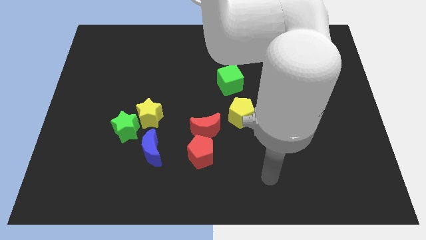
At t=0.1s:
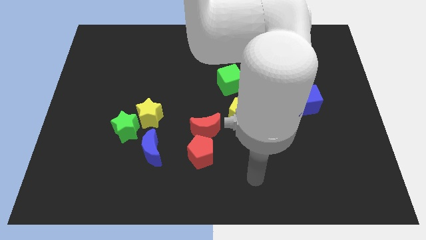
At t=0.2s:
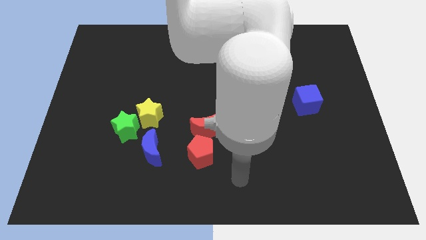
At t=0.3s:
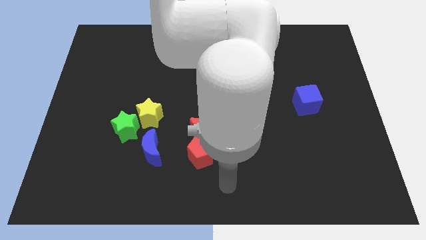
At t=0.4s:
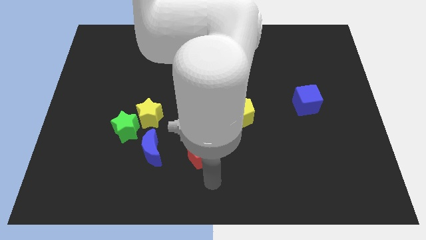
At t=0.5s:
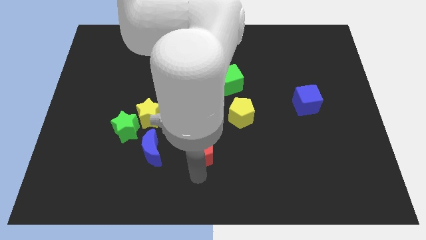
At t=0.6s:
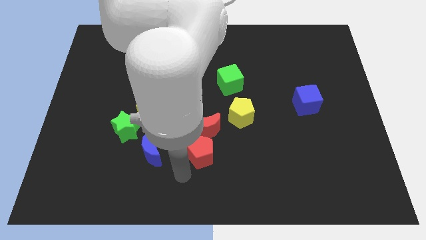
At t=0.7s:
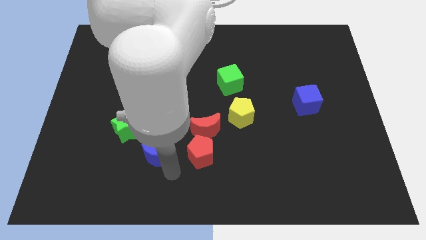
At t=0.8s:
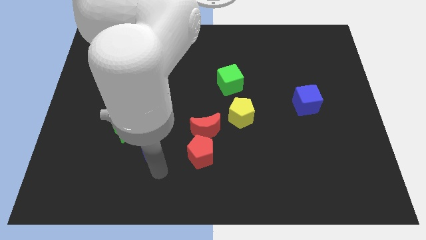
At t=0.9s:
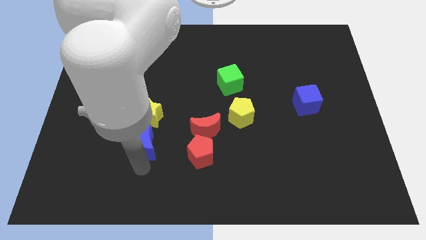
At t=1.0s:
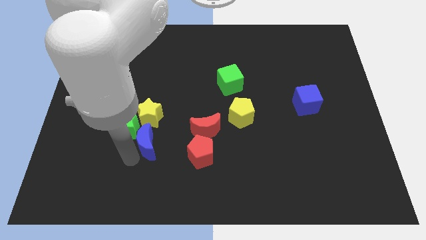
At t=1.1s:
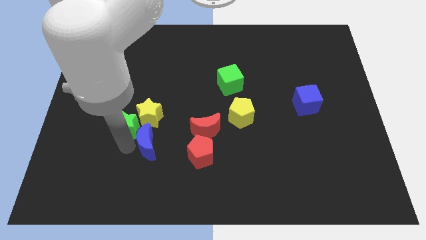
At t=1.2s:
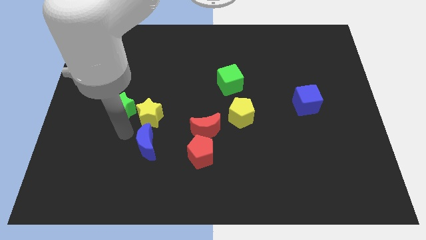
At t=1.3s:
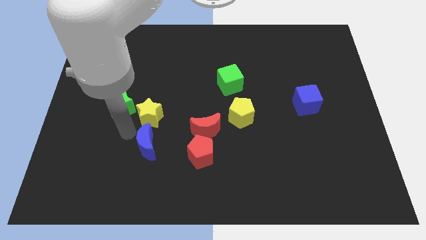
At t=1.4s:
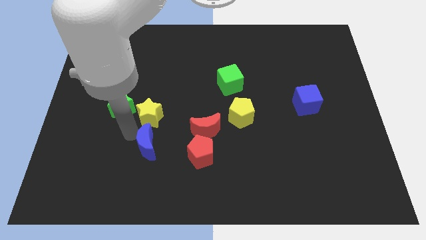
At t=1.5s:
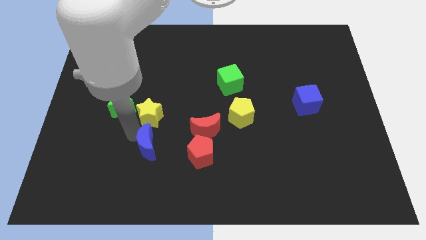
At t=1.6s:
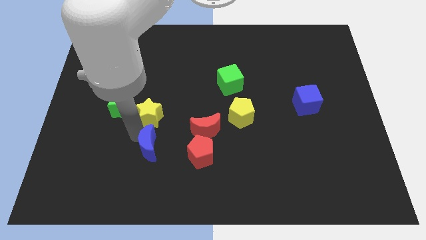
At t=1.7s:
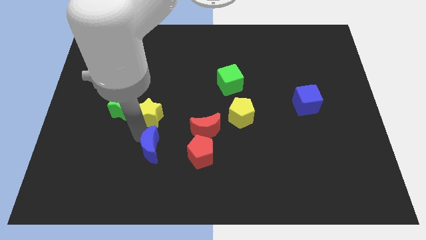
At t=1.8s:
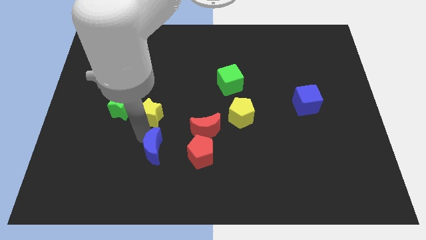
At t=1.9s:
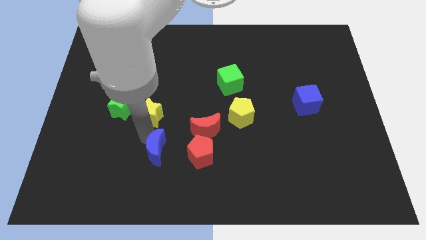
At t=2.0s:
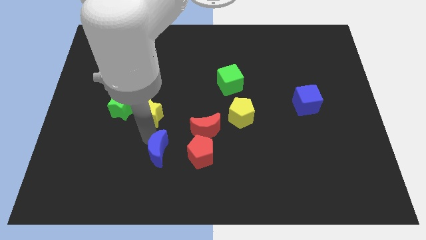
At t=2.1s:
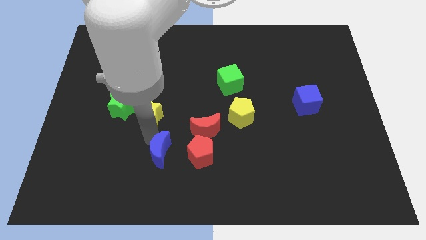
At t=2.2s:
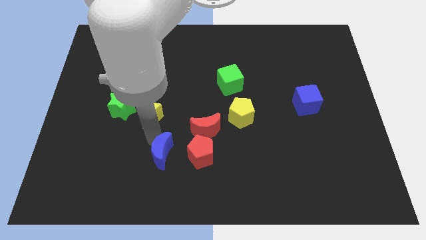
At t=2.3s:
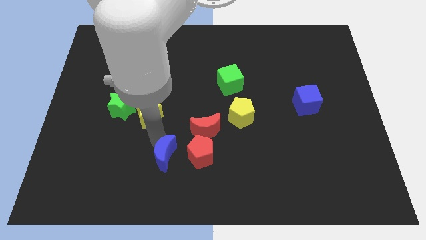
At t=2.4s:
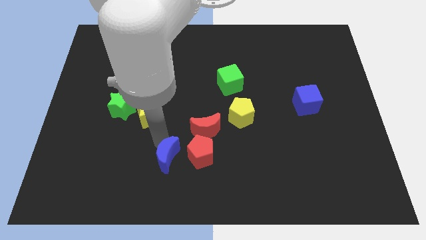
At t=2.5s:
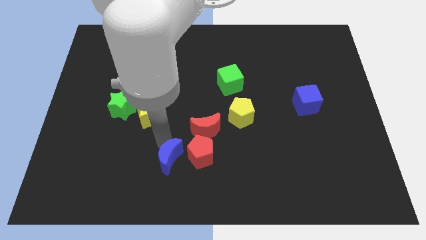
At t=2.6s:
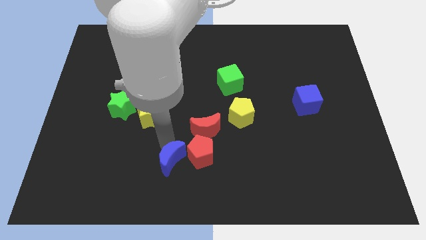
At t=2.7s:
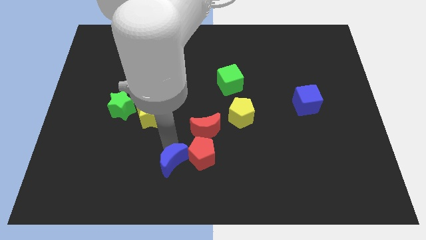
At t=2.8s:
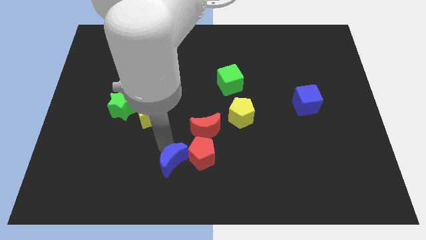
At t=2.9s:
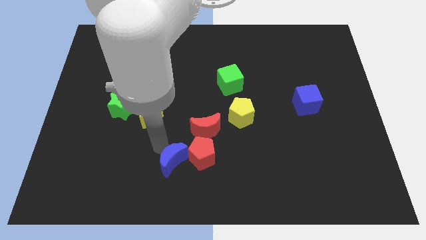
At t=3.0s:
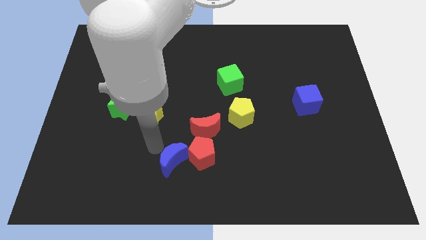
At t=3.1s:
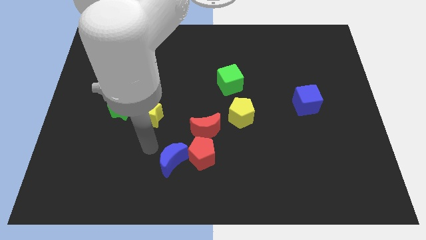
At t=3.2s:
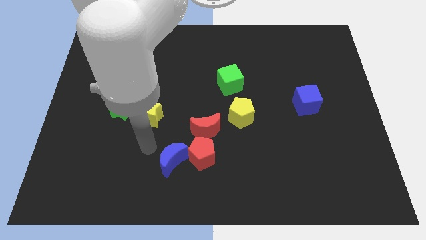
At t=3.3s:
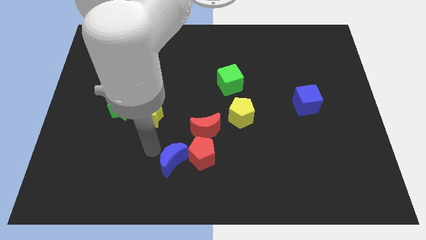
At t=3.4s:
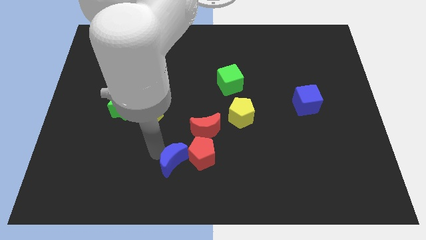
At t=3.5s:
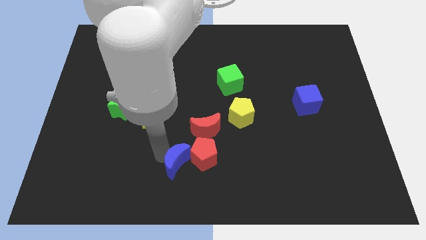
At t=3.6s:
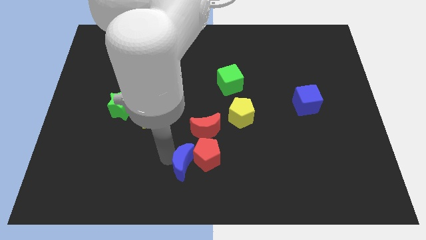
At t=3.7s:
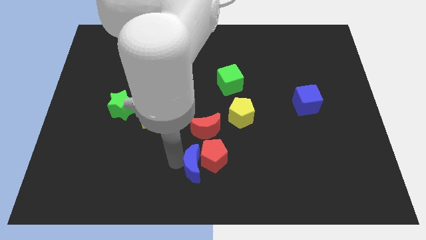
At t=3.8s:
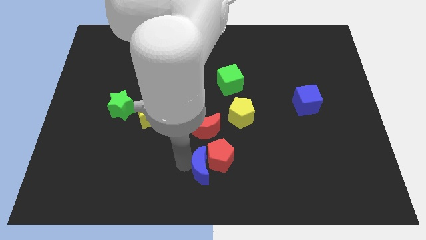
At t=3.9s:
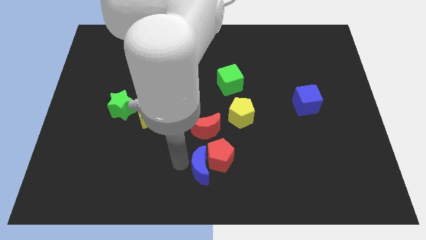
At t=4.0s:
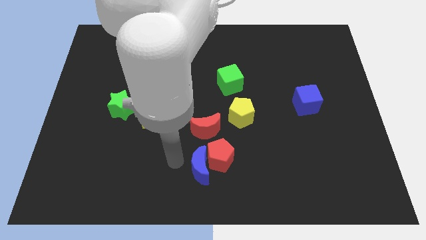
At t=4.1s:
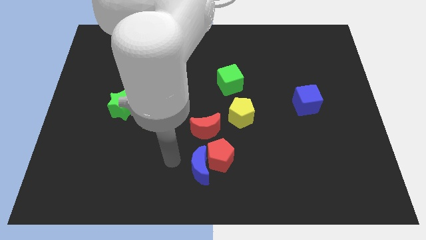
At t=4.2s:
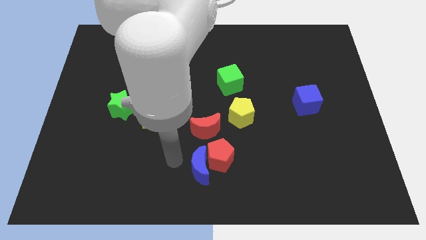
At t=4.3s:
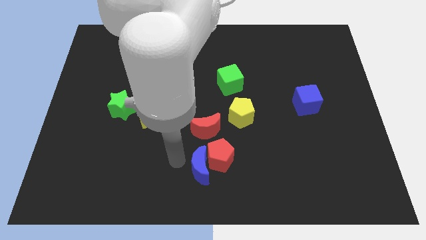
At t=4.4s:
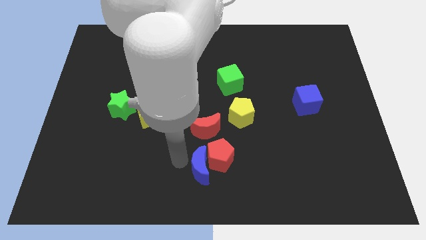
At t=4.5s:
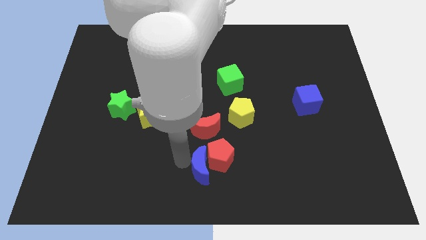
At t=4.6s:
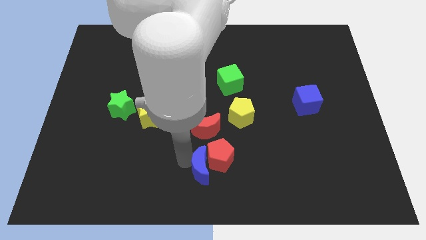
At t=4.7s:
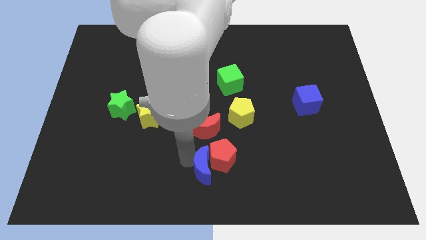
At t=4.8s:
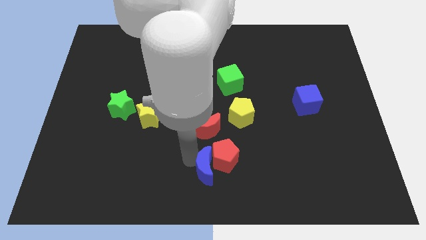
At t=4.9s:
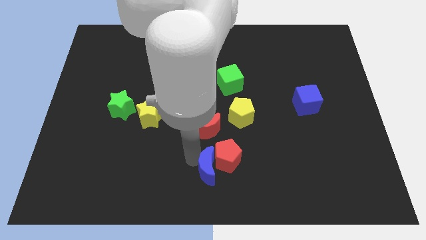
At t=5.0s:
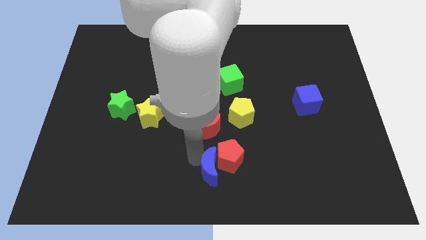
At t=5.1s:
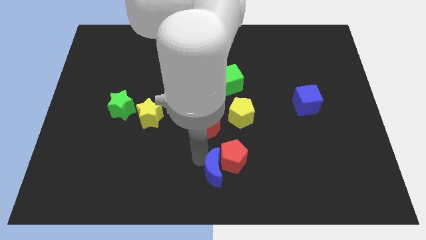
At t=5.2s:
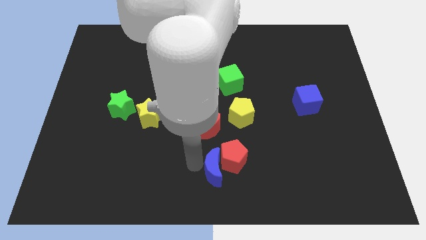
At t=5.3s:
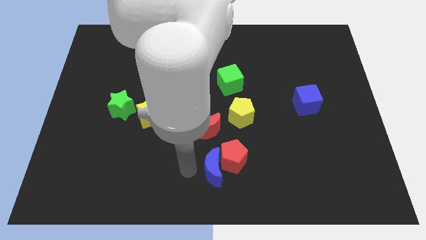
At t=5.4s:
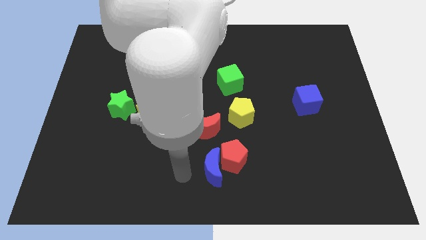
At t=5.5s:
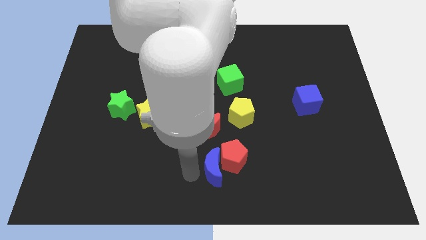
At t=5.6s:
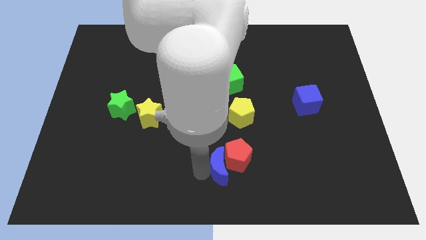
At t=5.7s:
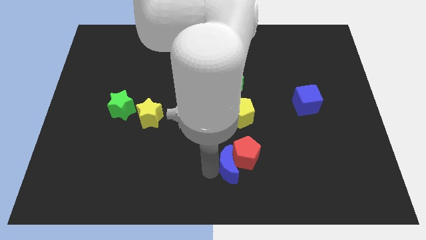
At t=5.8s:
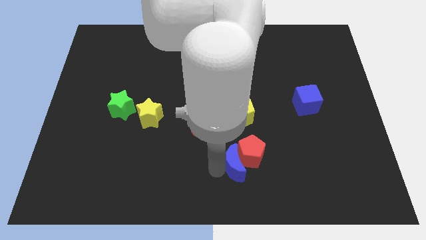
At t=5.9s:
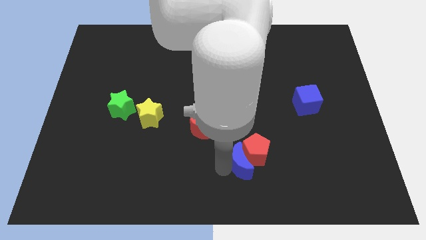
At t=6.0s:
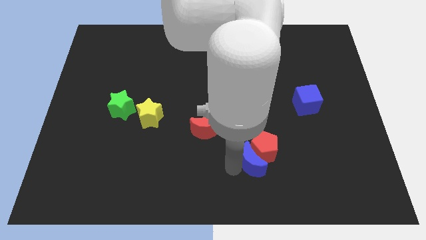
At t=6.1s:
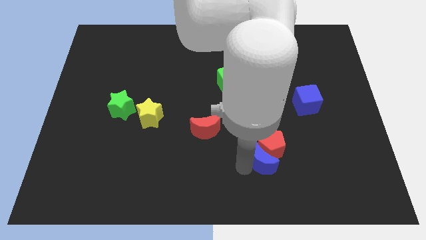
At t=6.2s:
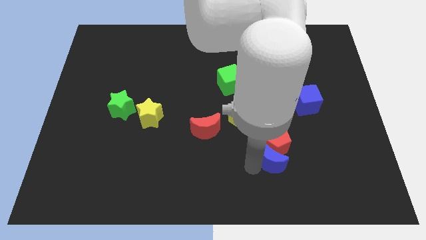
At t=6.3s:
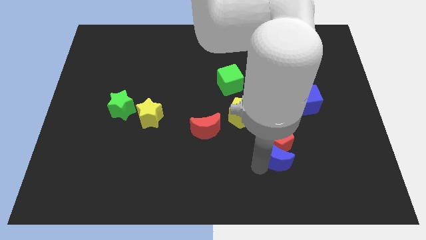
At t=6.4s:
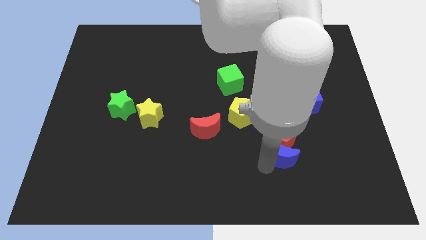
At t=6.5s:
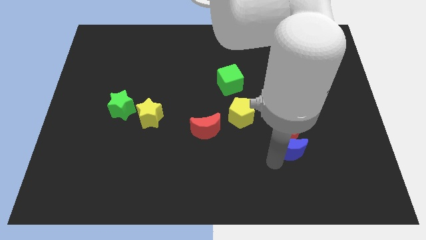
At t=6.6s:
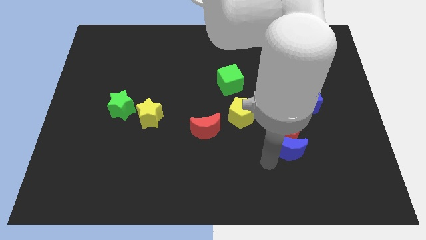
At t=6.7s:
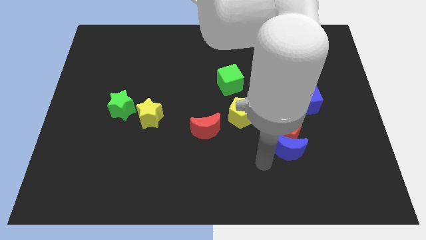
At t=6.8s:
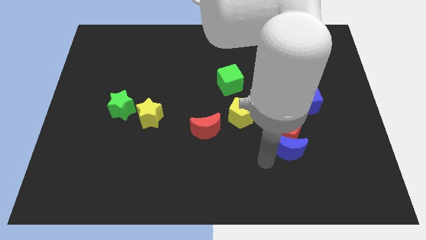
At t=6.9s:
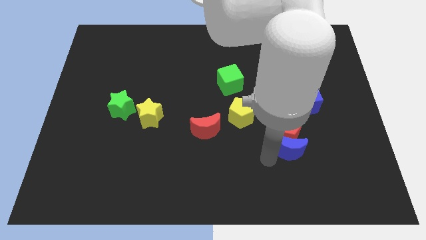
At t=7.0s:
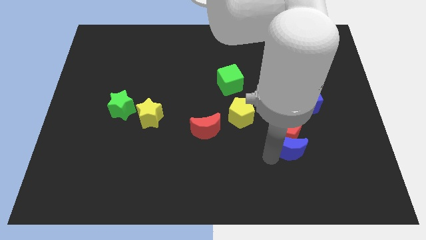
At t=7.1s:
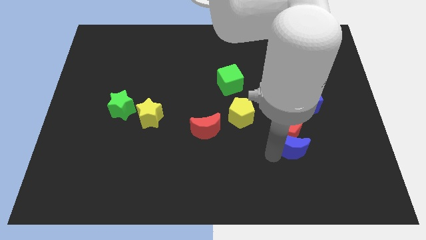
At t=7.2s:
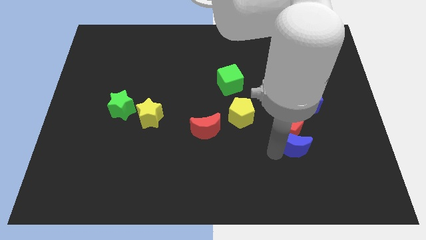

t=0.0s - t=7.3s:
push the blue moon to the bottom of the blue cube
